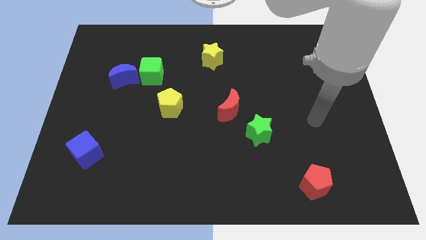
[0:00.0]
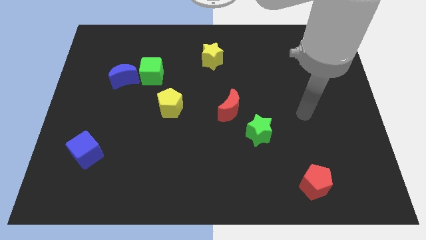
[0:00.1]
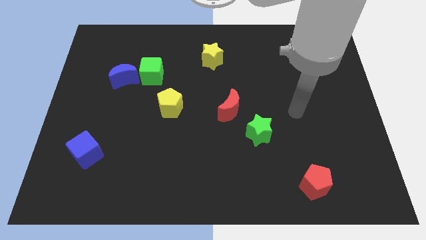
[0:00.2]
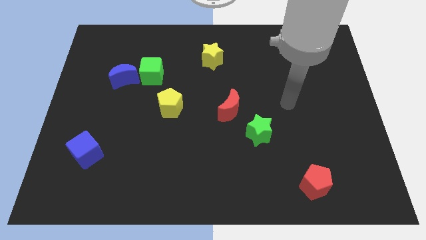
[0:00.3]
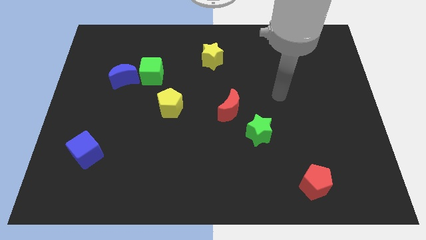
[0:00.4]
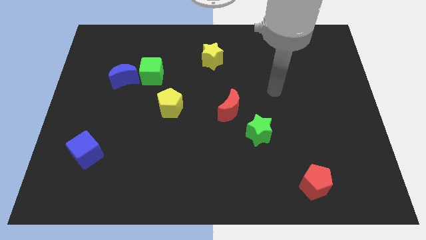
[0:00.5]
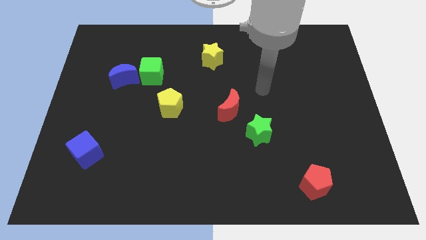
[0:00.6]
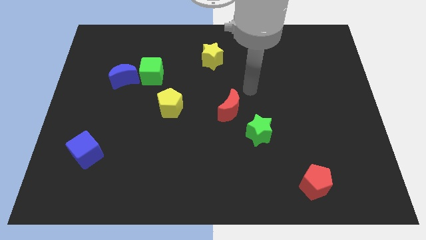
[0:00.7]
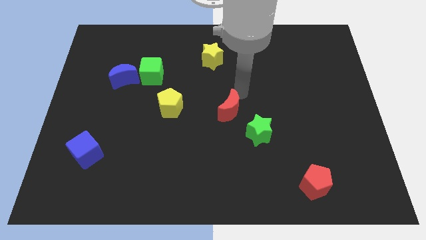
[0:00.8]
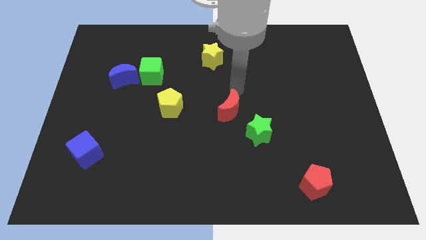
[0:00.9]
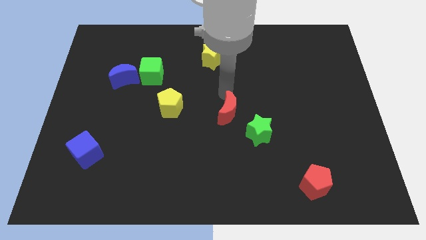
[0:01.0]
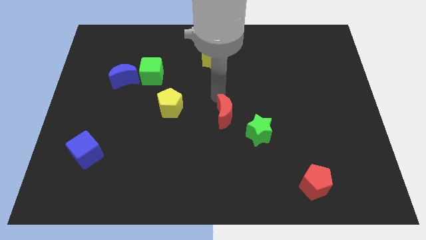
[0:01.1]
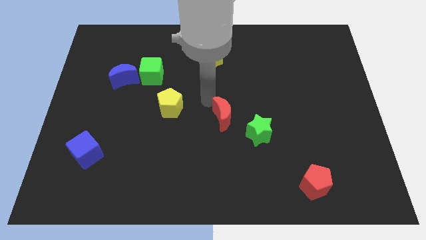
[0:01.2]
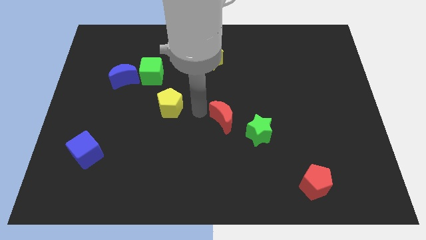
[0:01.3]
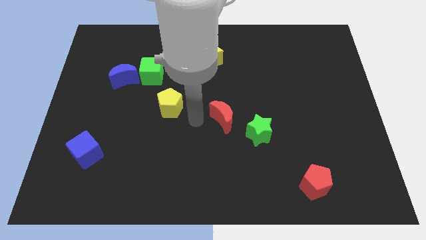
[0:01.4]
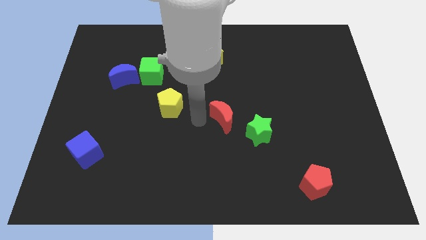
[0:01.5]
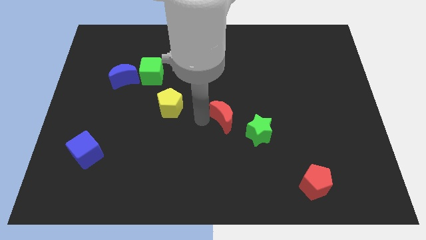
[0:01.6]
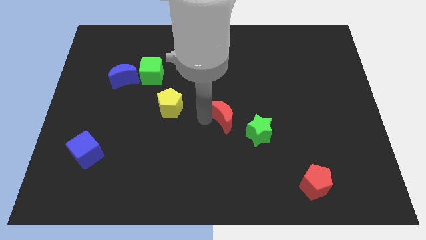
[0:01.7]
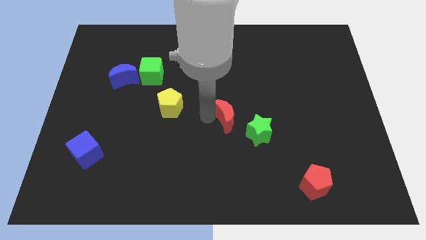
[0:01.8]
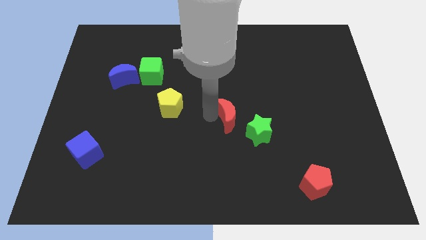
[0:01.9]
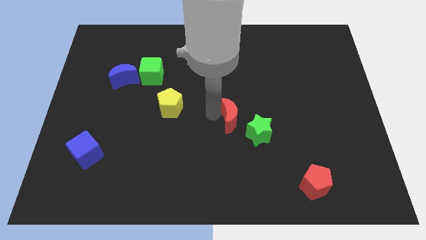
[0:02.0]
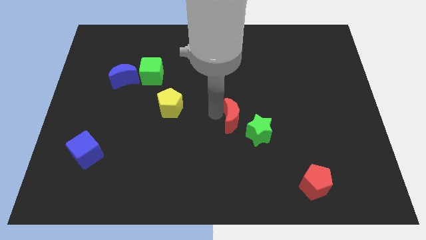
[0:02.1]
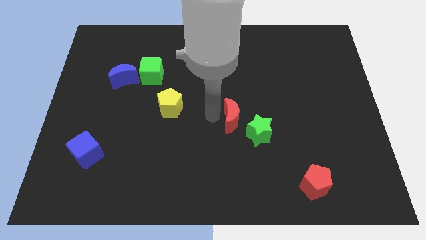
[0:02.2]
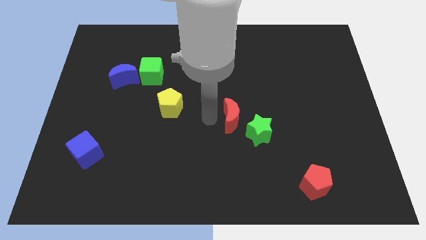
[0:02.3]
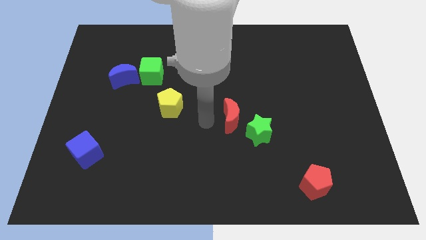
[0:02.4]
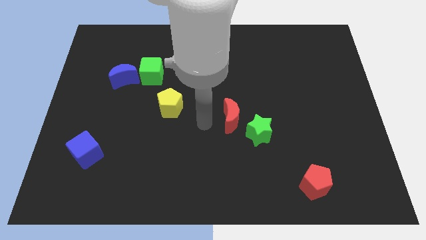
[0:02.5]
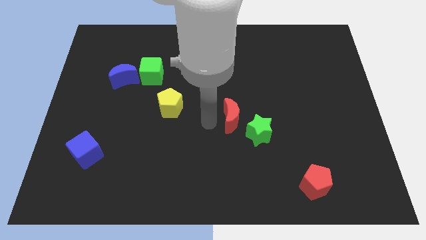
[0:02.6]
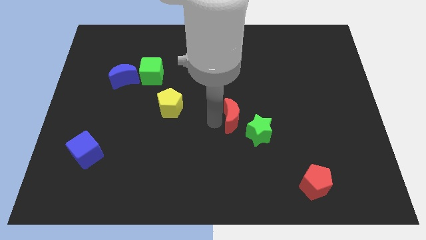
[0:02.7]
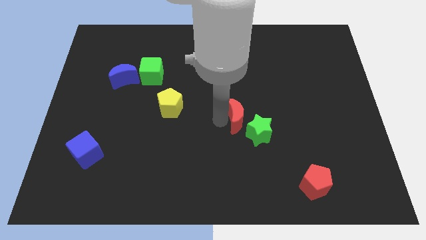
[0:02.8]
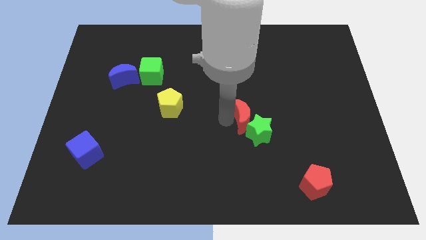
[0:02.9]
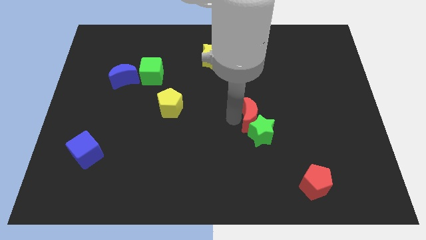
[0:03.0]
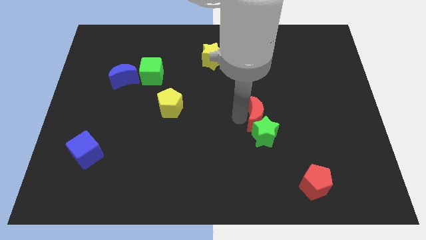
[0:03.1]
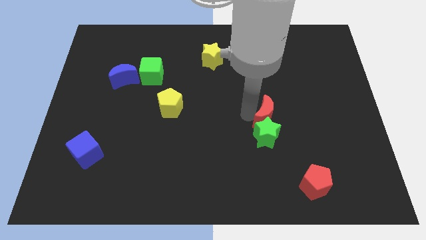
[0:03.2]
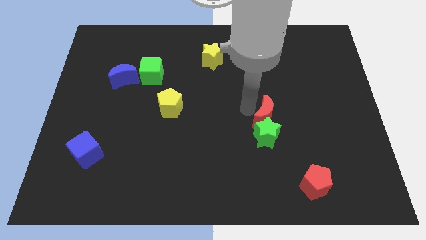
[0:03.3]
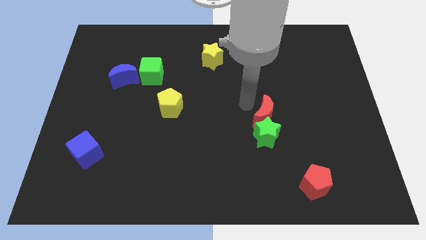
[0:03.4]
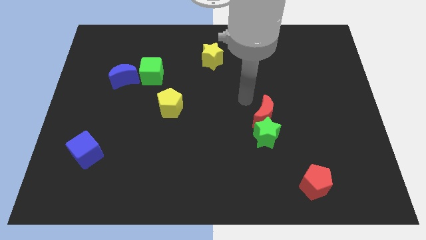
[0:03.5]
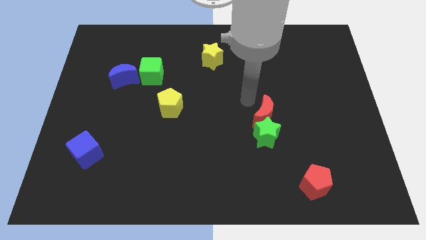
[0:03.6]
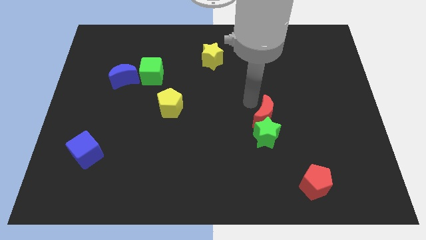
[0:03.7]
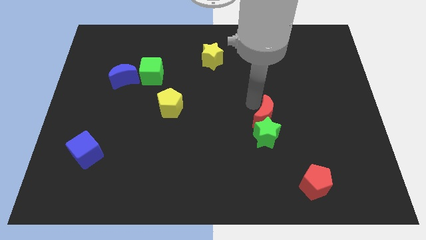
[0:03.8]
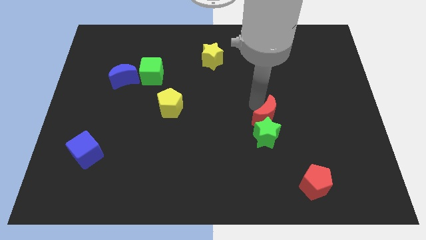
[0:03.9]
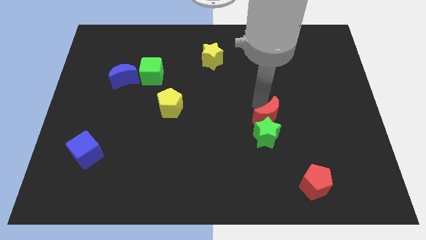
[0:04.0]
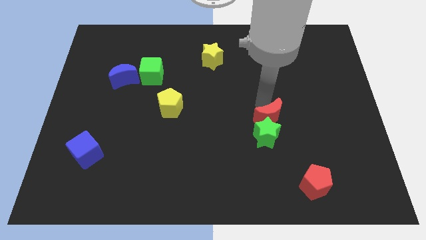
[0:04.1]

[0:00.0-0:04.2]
move the red moon a little bit downwards and right diagonally

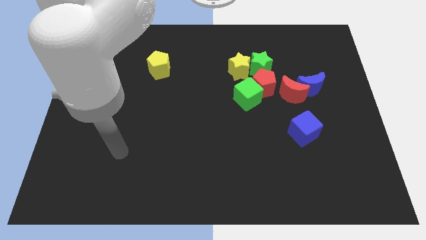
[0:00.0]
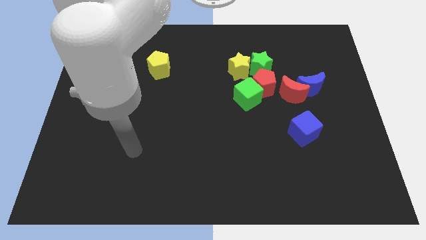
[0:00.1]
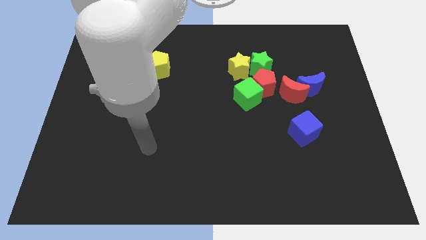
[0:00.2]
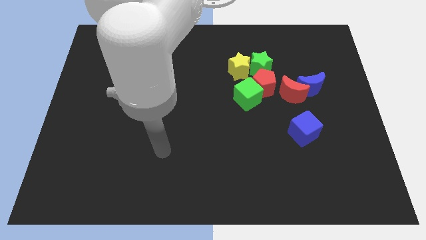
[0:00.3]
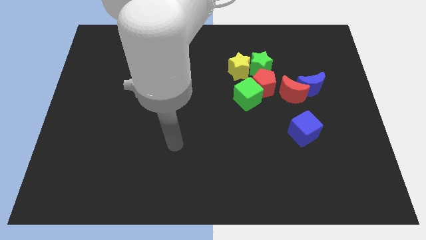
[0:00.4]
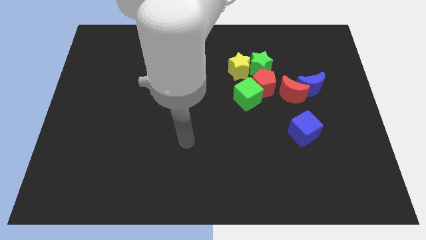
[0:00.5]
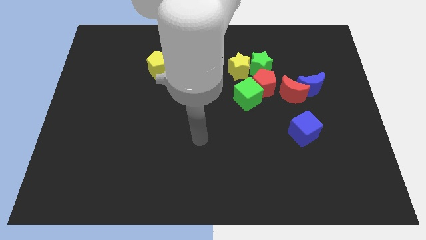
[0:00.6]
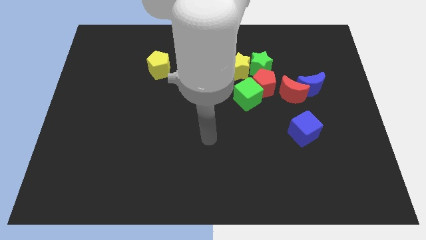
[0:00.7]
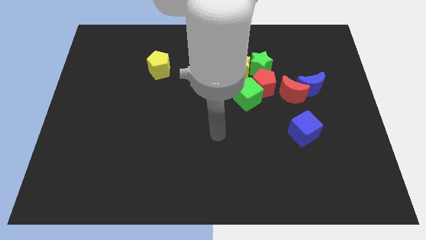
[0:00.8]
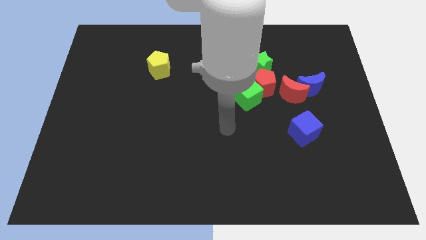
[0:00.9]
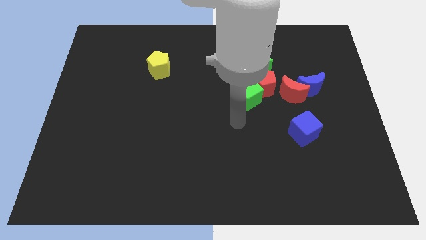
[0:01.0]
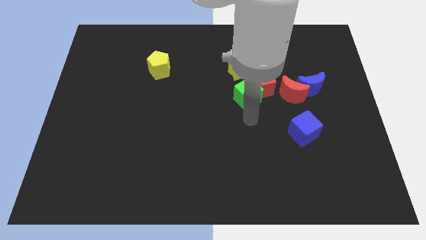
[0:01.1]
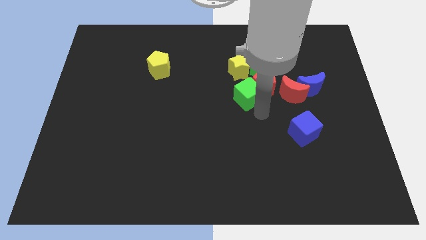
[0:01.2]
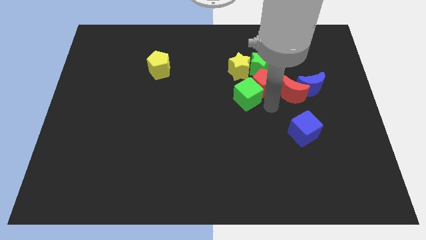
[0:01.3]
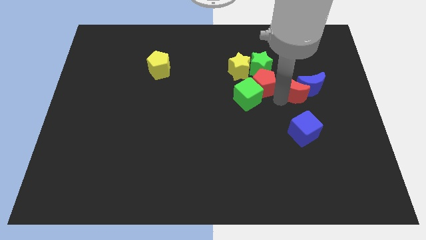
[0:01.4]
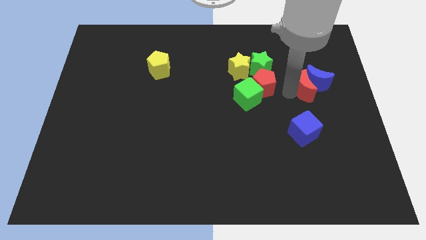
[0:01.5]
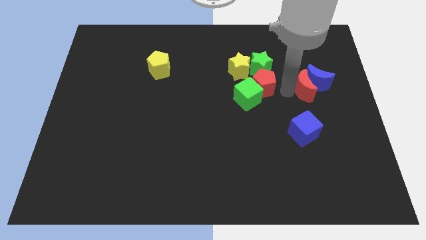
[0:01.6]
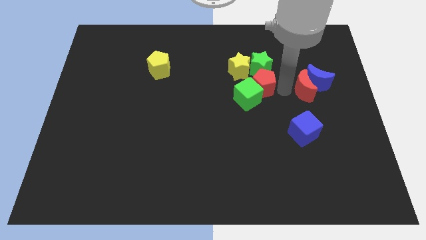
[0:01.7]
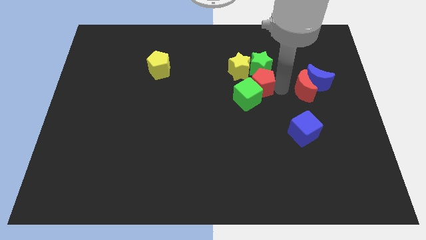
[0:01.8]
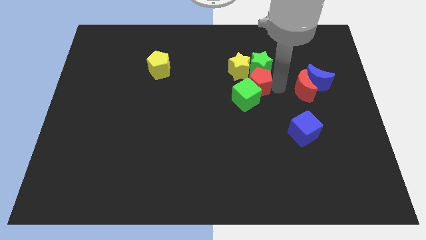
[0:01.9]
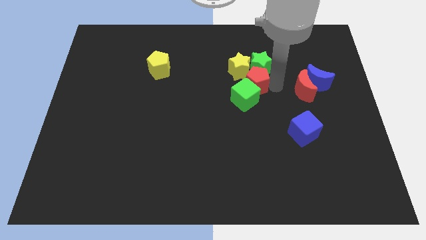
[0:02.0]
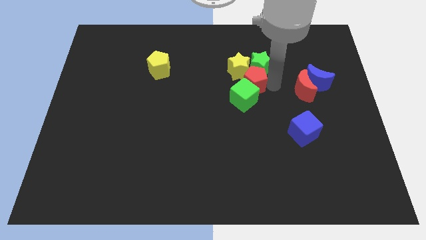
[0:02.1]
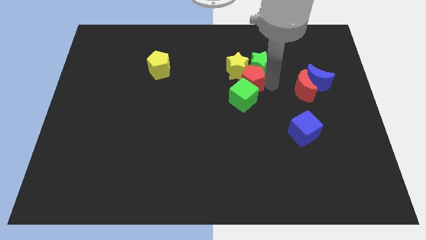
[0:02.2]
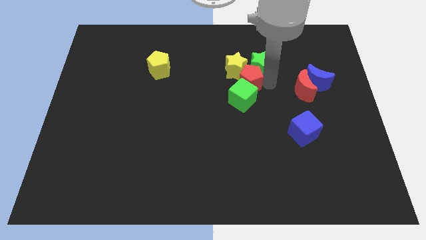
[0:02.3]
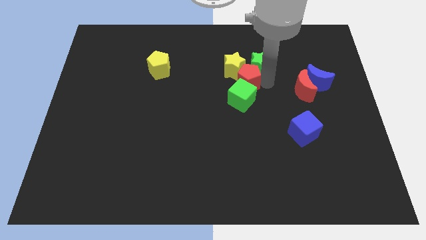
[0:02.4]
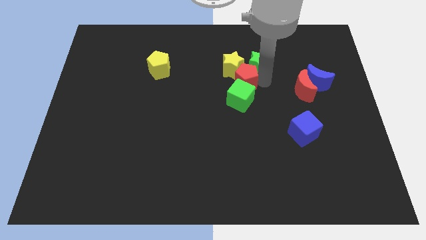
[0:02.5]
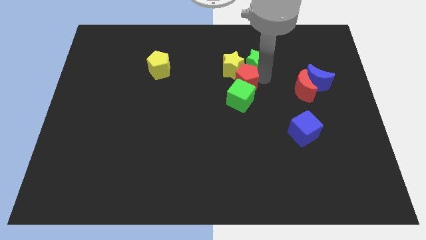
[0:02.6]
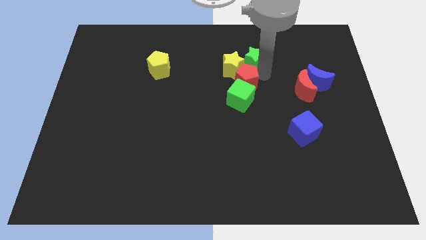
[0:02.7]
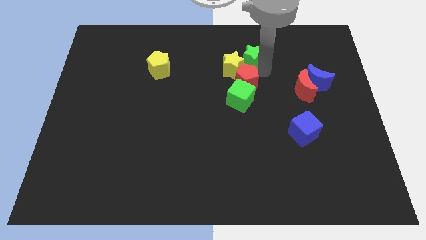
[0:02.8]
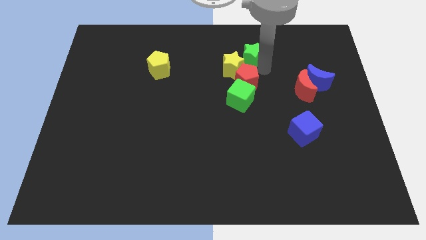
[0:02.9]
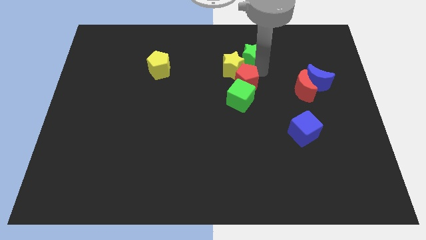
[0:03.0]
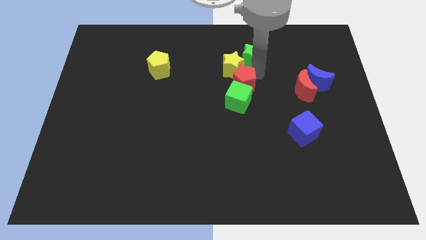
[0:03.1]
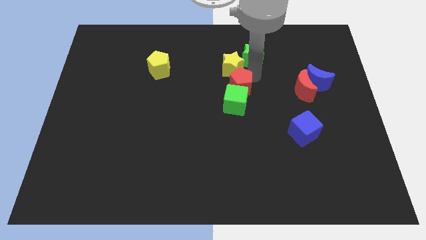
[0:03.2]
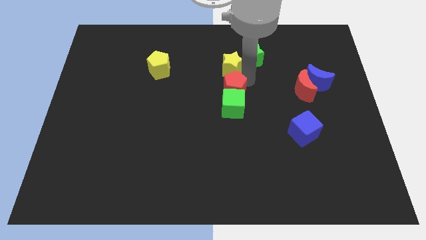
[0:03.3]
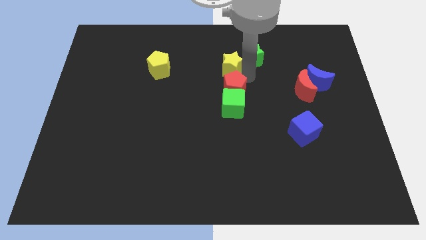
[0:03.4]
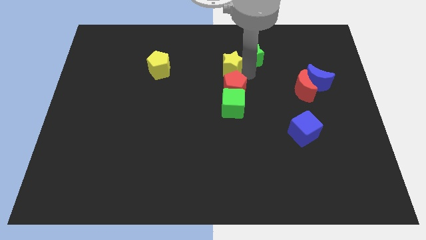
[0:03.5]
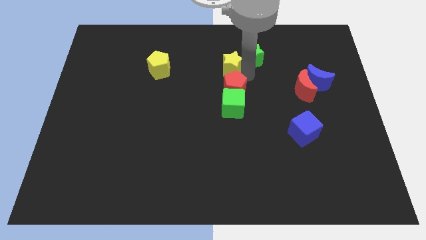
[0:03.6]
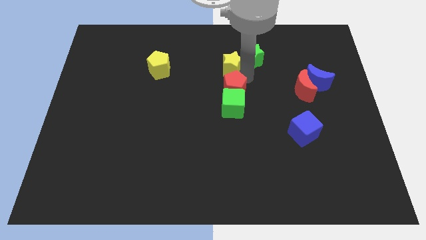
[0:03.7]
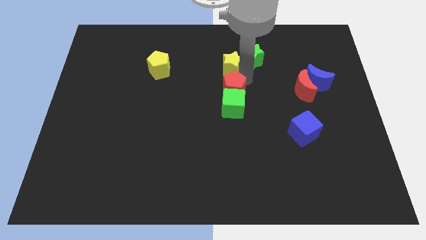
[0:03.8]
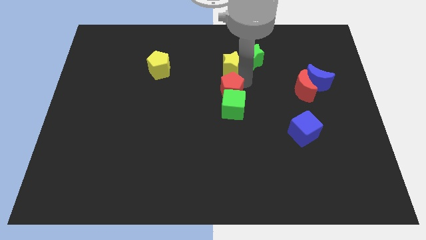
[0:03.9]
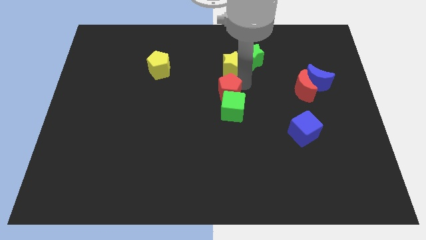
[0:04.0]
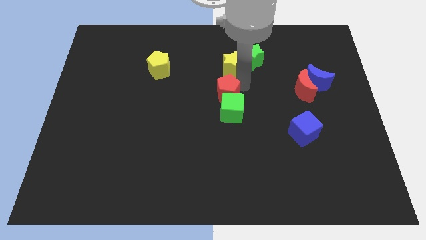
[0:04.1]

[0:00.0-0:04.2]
slightly move the red pentagon down and left
